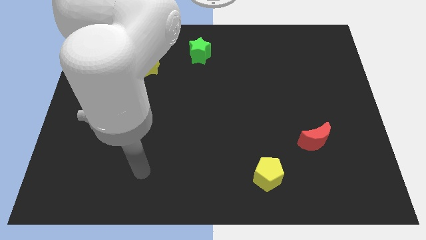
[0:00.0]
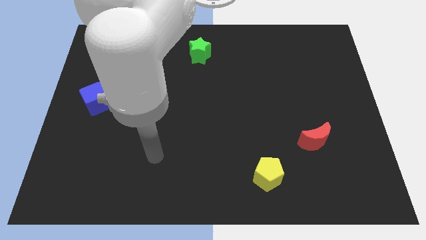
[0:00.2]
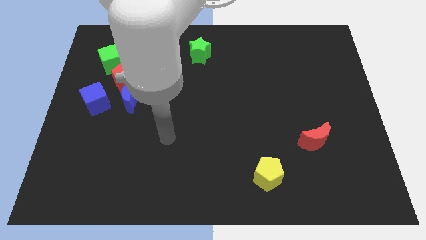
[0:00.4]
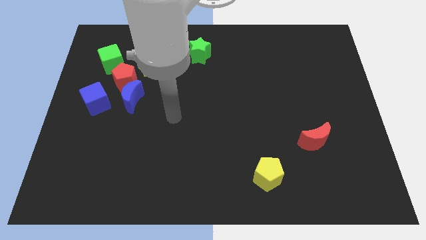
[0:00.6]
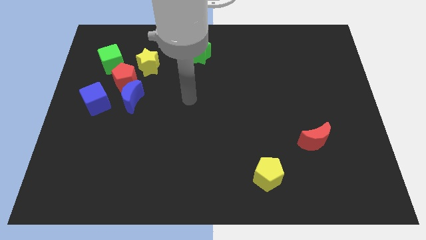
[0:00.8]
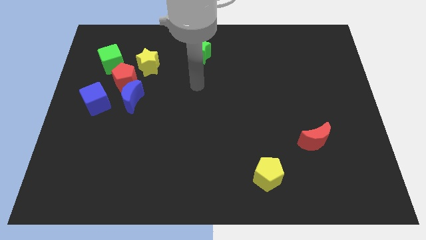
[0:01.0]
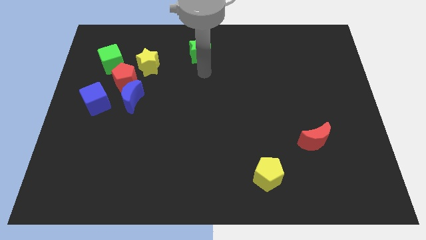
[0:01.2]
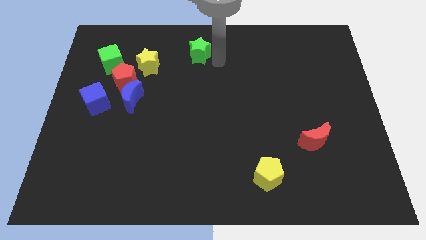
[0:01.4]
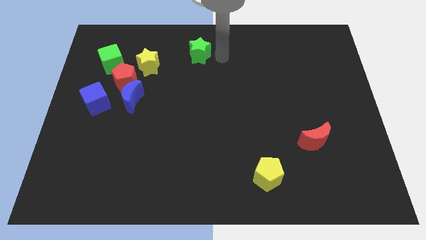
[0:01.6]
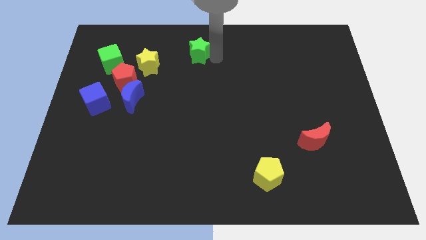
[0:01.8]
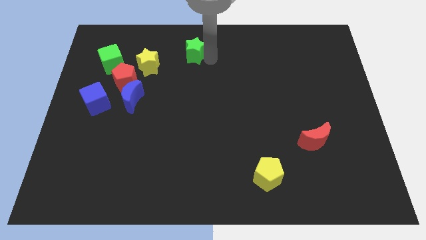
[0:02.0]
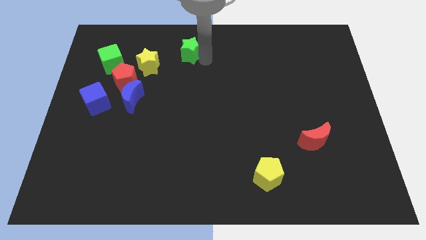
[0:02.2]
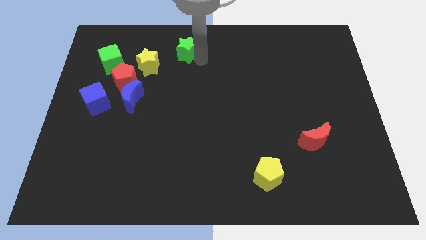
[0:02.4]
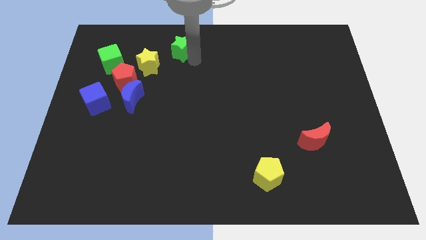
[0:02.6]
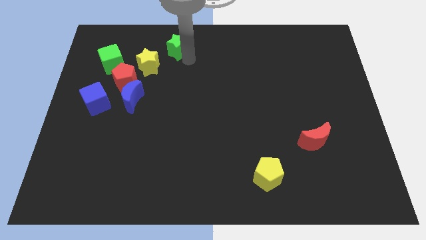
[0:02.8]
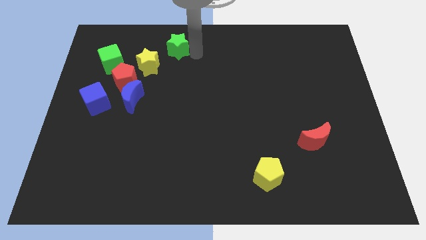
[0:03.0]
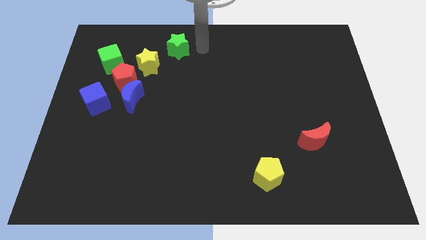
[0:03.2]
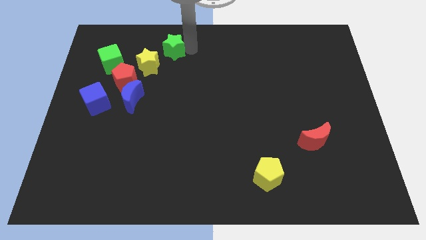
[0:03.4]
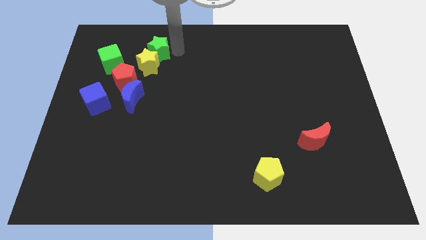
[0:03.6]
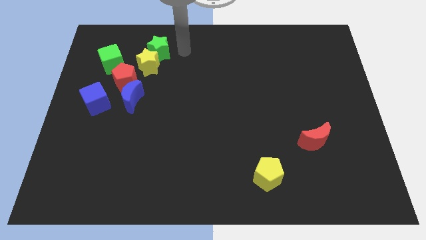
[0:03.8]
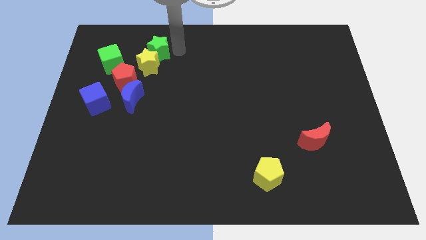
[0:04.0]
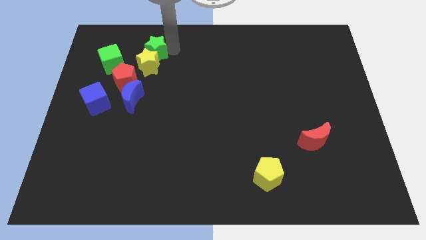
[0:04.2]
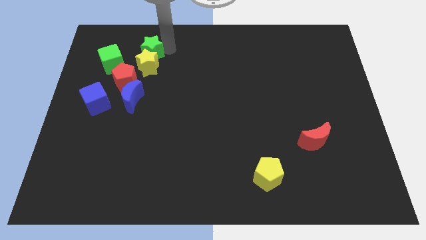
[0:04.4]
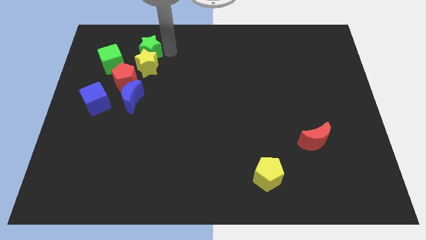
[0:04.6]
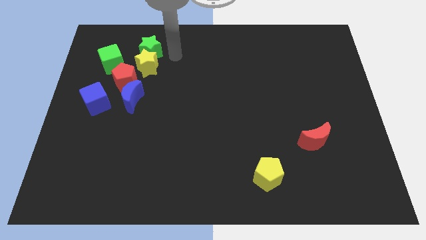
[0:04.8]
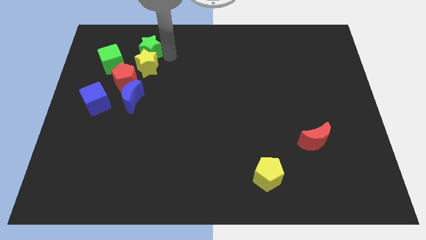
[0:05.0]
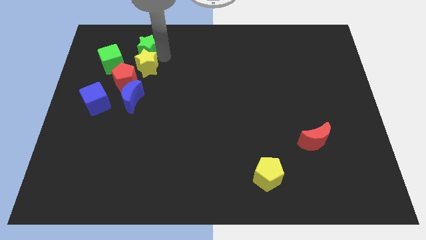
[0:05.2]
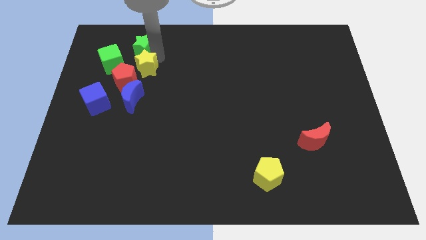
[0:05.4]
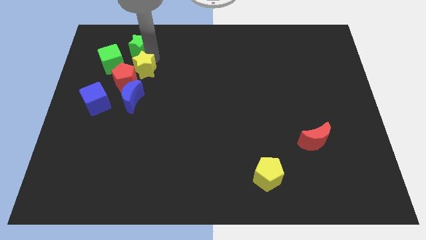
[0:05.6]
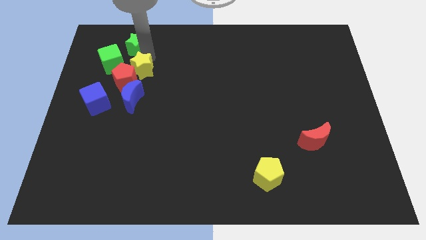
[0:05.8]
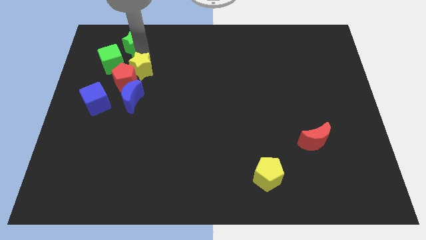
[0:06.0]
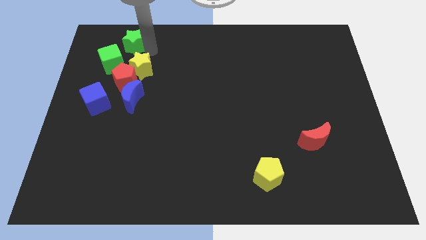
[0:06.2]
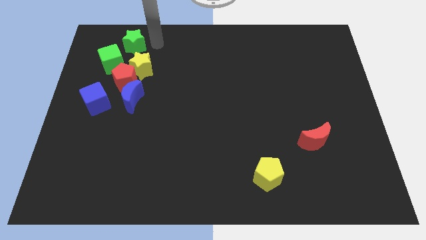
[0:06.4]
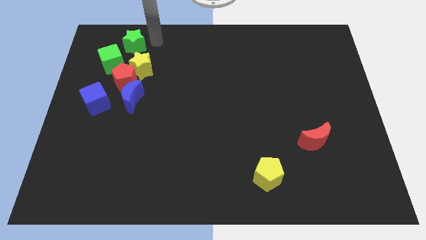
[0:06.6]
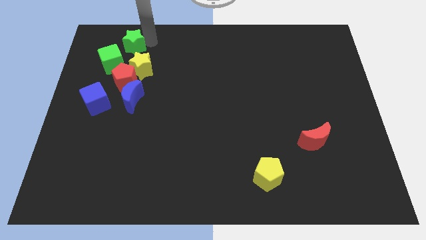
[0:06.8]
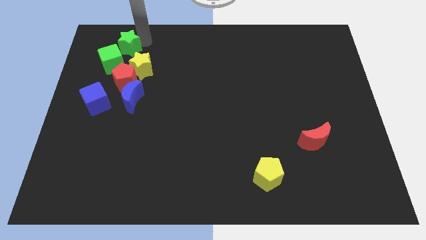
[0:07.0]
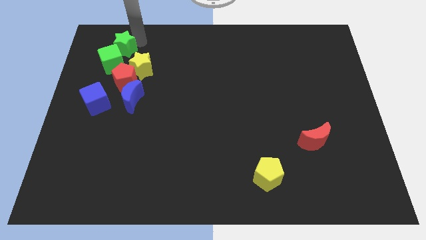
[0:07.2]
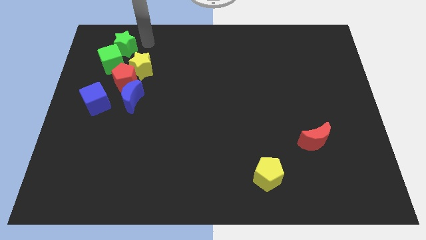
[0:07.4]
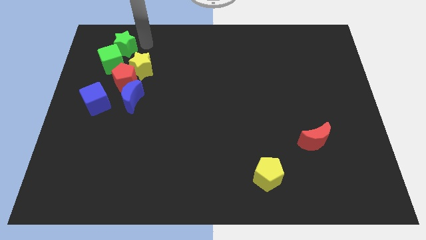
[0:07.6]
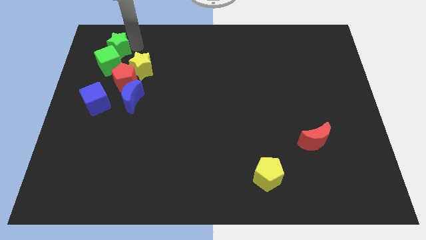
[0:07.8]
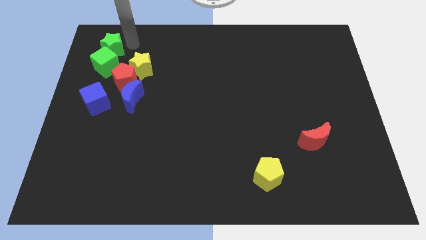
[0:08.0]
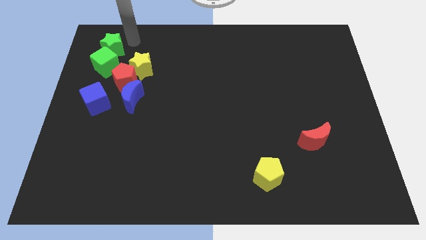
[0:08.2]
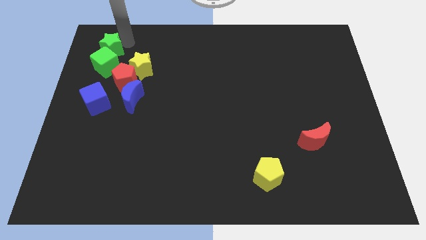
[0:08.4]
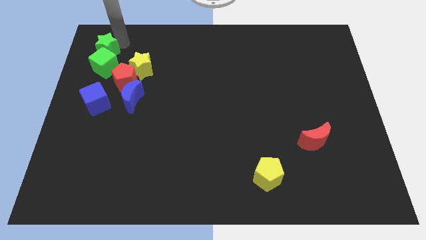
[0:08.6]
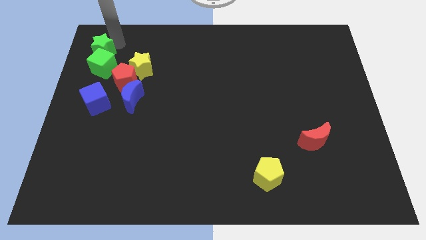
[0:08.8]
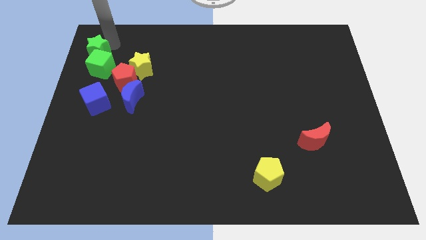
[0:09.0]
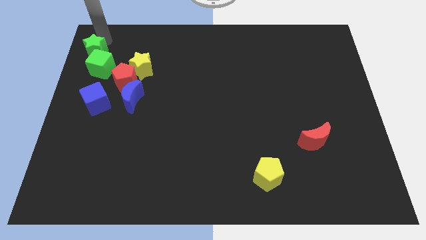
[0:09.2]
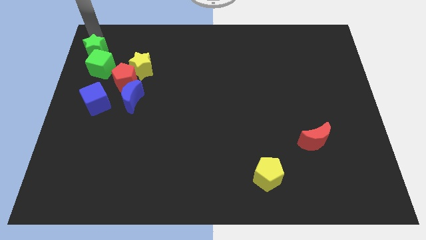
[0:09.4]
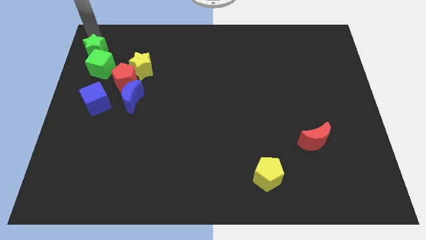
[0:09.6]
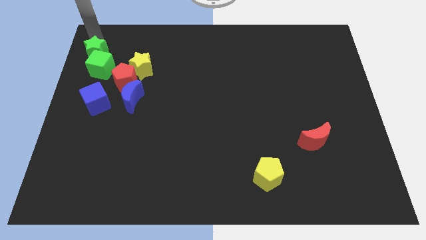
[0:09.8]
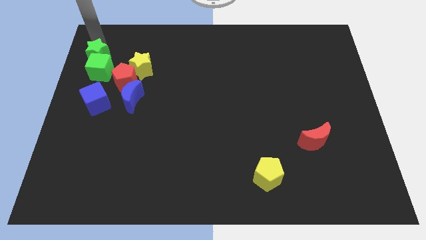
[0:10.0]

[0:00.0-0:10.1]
push the green star to the left of the yellow star

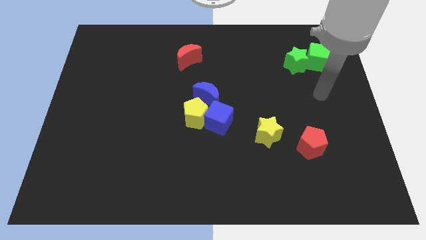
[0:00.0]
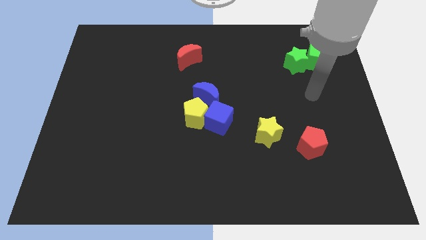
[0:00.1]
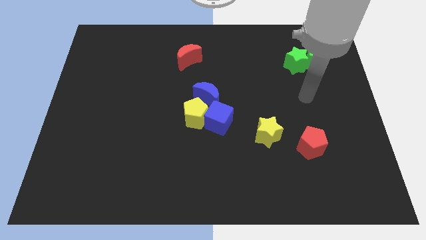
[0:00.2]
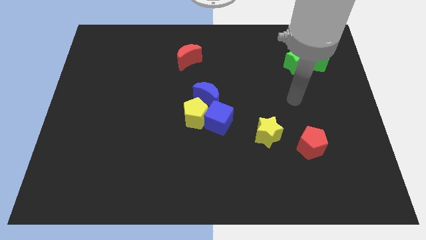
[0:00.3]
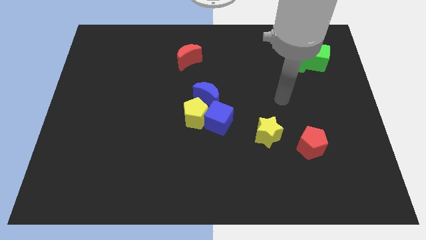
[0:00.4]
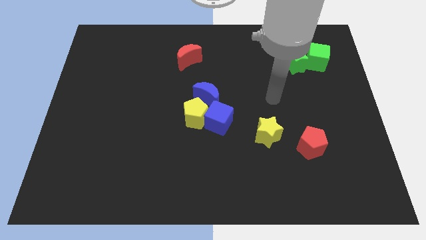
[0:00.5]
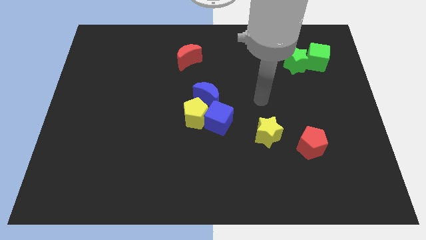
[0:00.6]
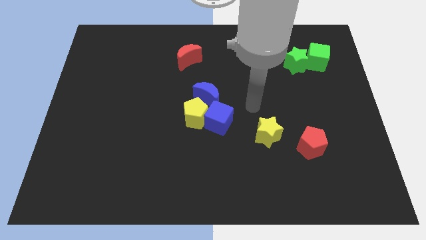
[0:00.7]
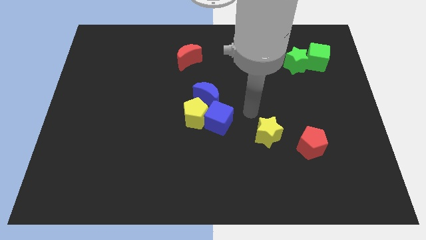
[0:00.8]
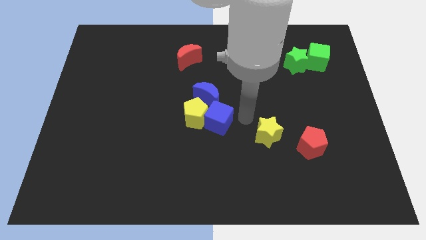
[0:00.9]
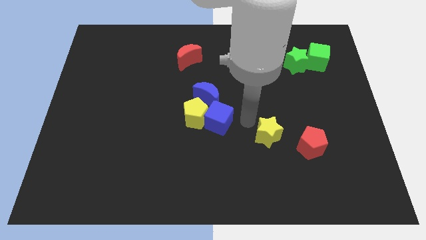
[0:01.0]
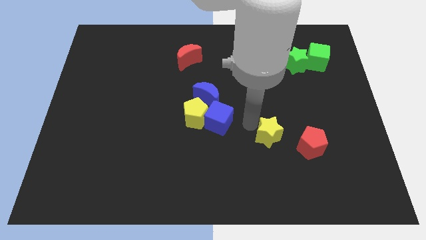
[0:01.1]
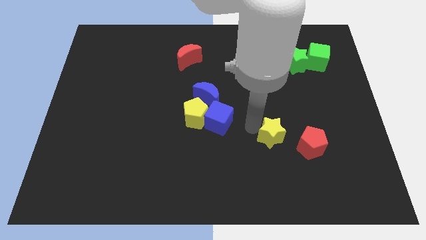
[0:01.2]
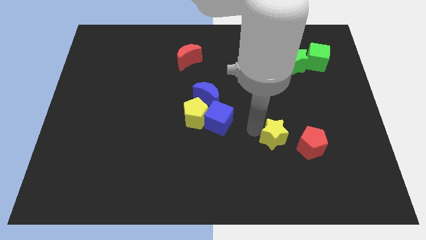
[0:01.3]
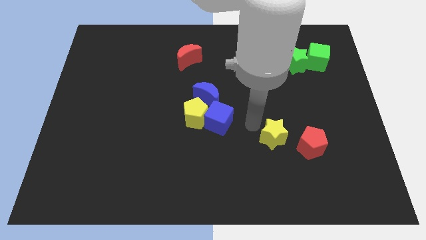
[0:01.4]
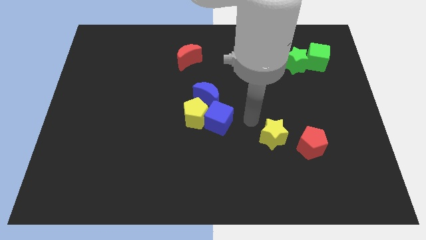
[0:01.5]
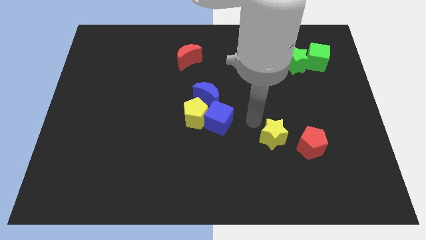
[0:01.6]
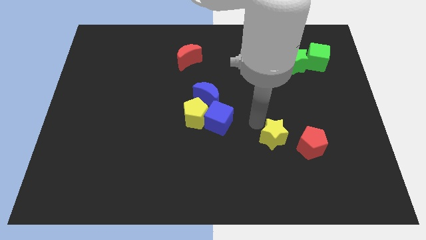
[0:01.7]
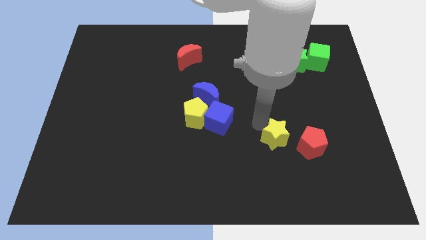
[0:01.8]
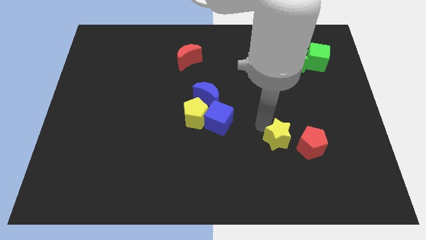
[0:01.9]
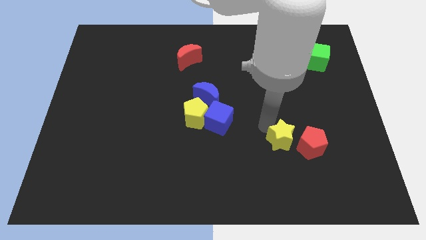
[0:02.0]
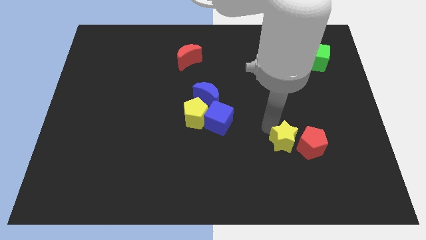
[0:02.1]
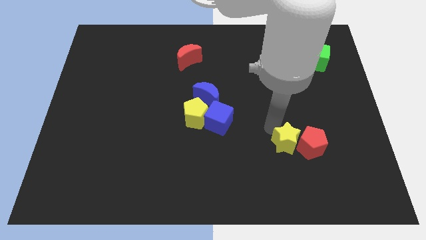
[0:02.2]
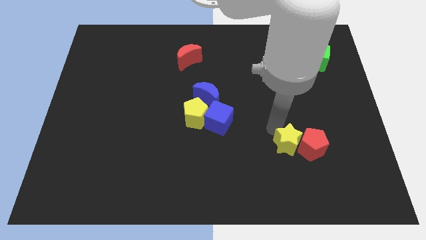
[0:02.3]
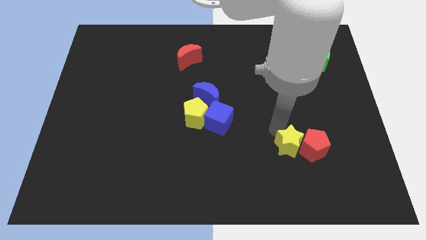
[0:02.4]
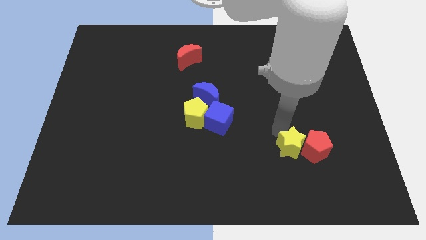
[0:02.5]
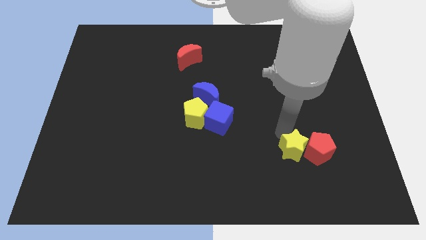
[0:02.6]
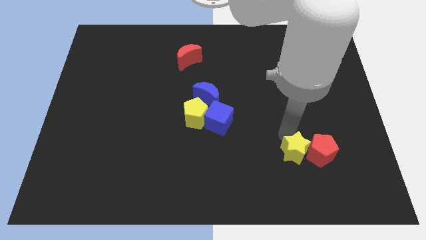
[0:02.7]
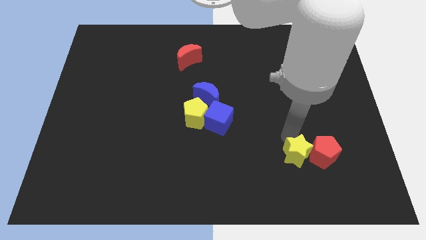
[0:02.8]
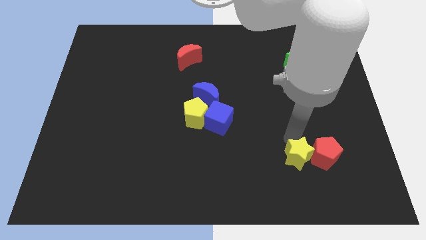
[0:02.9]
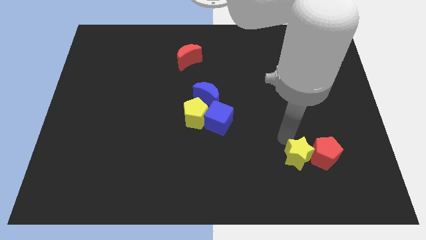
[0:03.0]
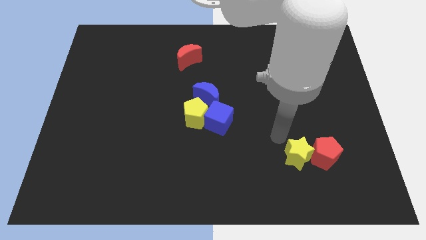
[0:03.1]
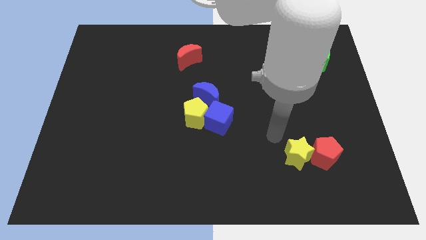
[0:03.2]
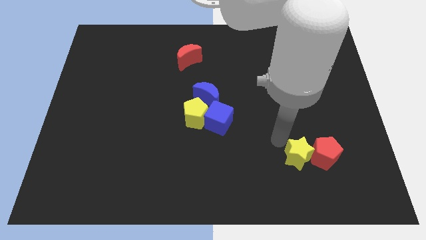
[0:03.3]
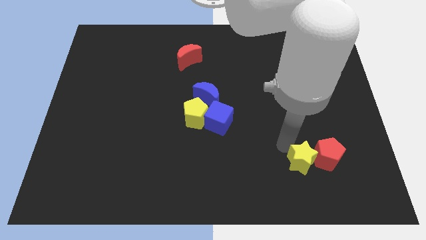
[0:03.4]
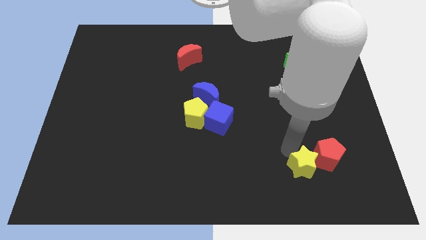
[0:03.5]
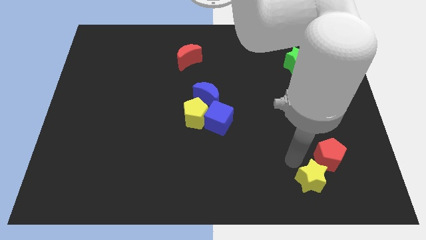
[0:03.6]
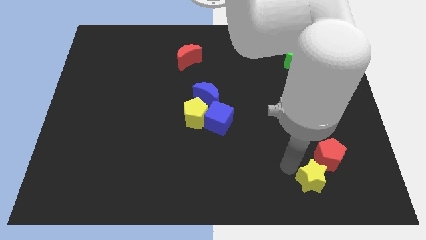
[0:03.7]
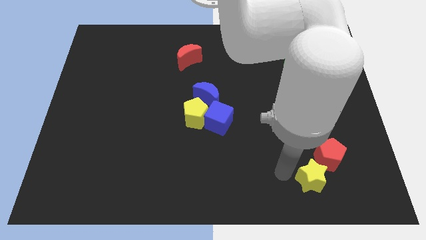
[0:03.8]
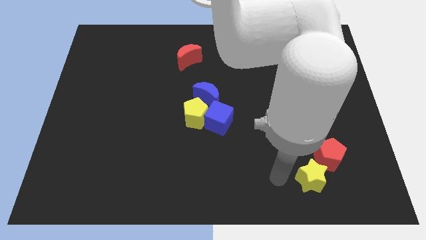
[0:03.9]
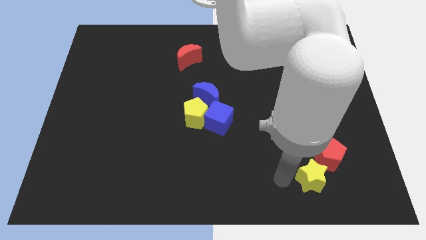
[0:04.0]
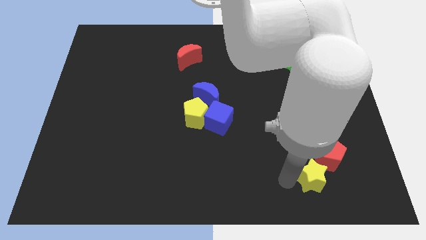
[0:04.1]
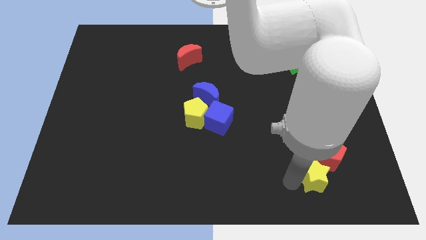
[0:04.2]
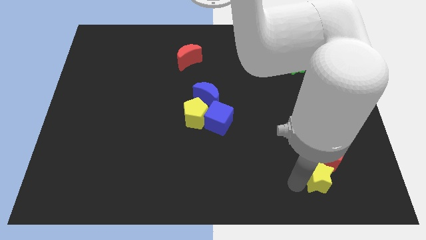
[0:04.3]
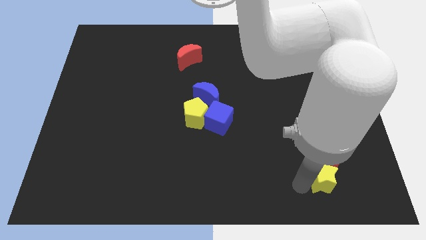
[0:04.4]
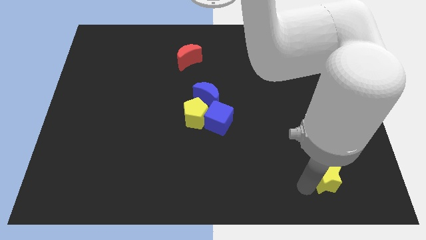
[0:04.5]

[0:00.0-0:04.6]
slide the yellow star to the bottom right of the red pentagon
